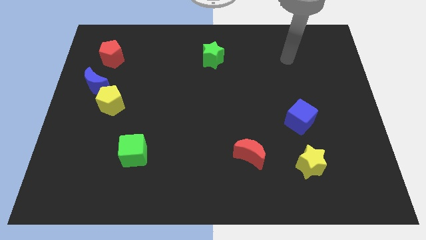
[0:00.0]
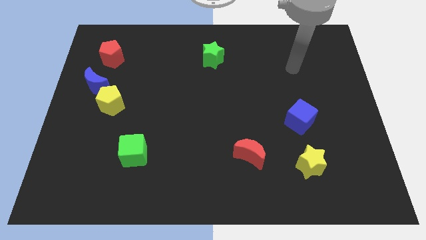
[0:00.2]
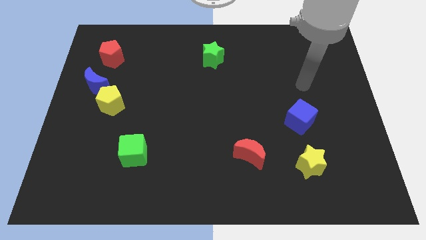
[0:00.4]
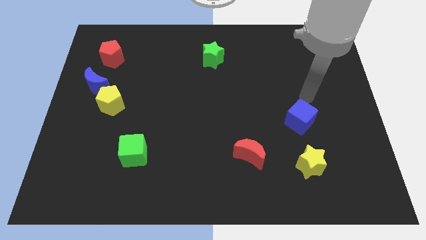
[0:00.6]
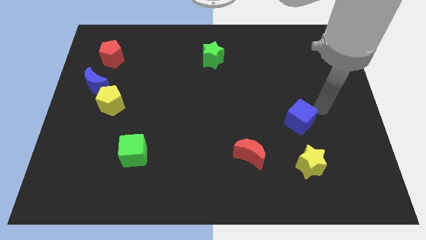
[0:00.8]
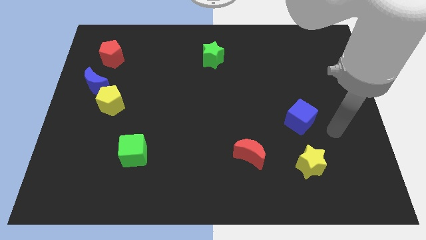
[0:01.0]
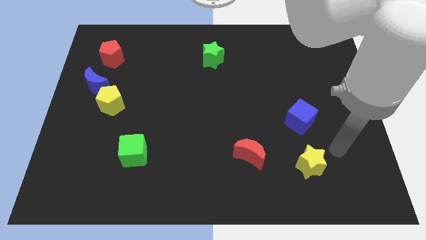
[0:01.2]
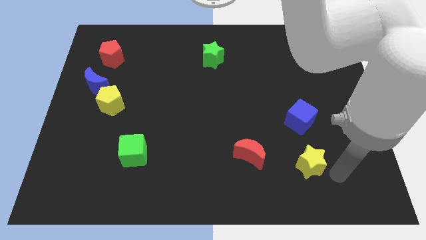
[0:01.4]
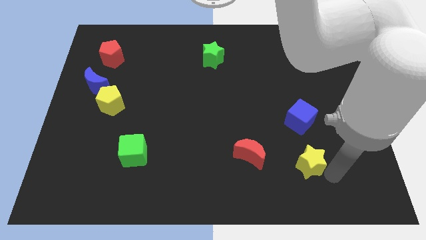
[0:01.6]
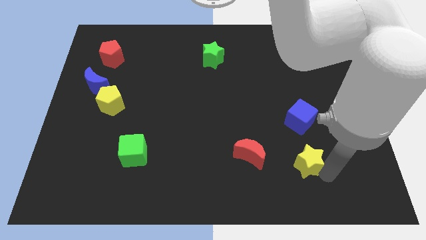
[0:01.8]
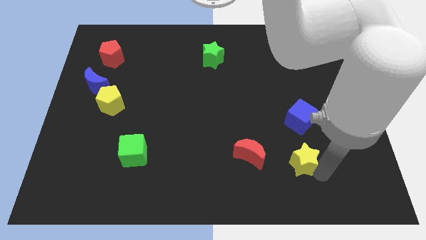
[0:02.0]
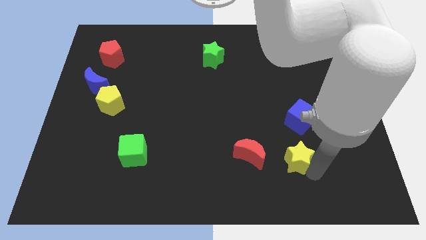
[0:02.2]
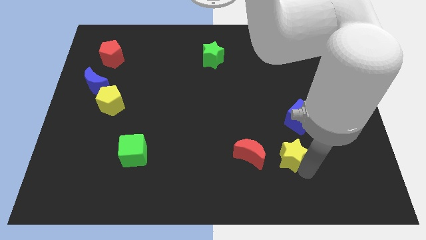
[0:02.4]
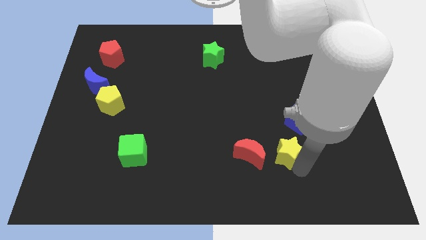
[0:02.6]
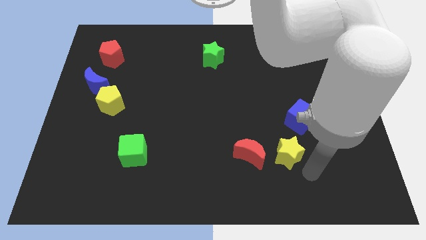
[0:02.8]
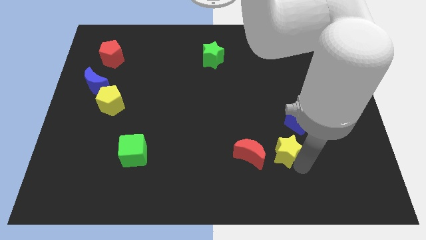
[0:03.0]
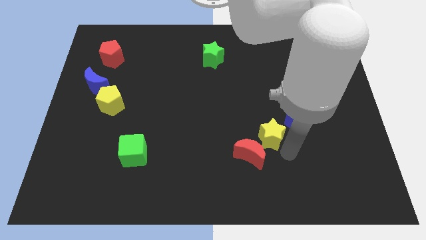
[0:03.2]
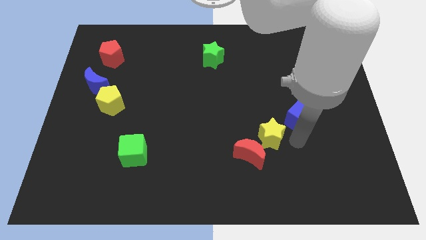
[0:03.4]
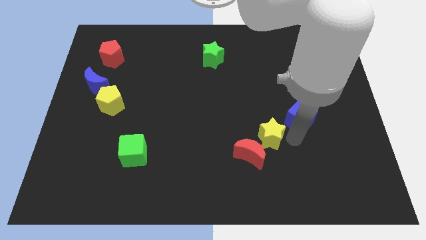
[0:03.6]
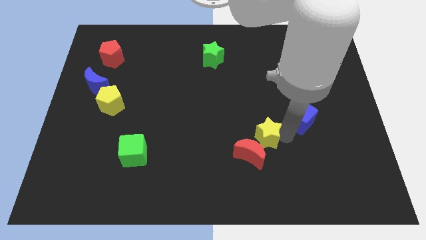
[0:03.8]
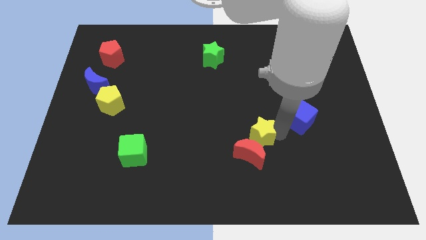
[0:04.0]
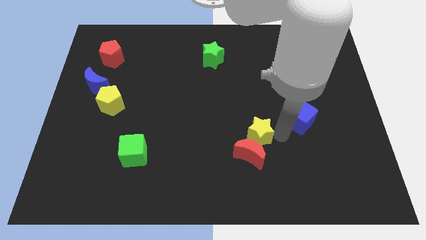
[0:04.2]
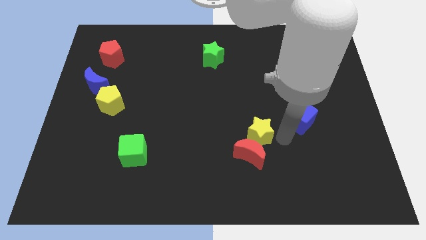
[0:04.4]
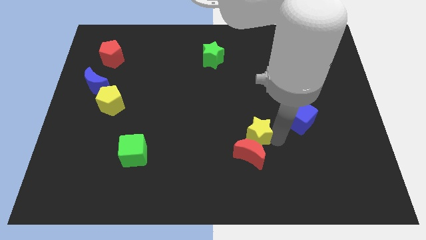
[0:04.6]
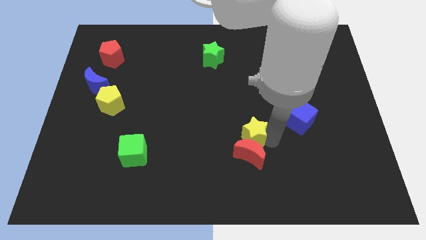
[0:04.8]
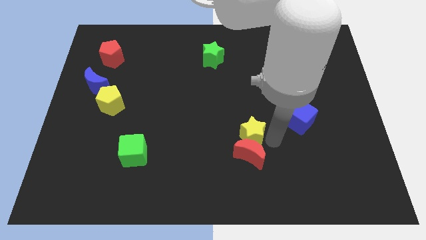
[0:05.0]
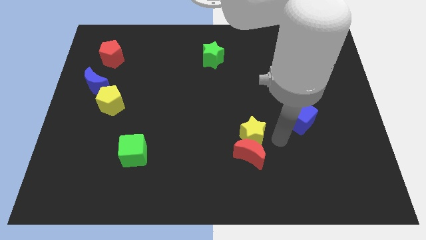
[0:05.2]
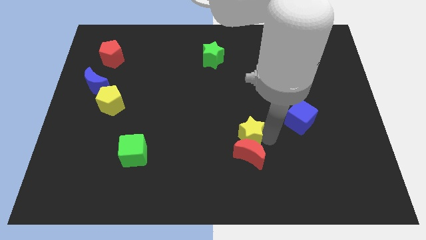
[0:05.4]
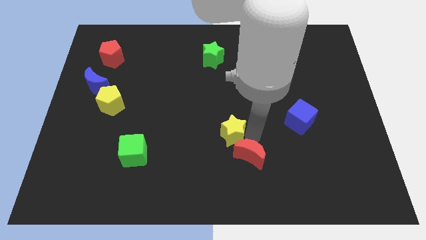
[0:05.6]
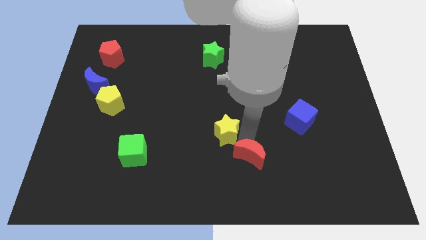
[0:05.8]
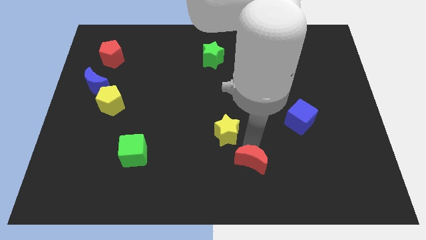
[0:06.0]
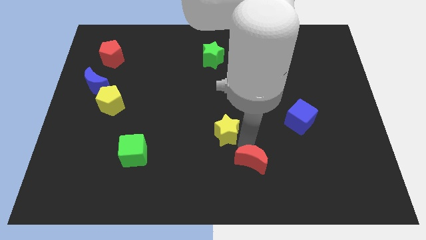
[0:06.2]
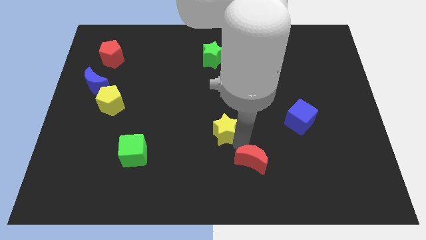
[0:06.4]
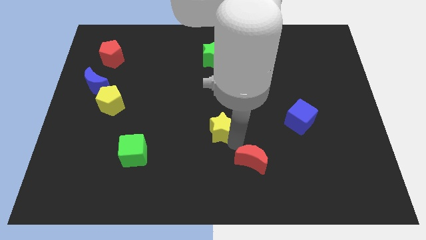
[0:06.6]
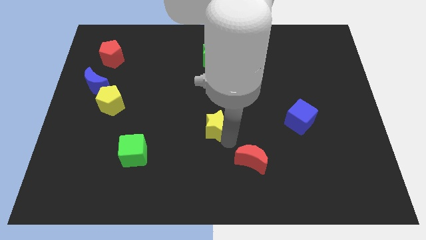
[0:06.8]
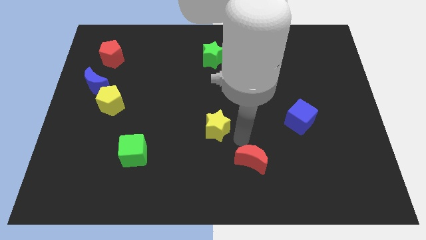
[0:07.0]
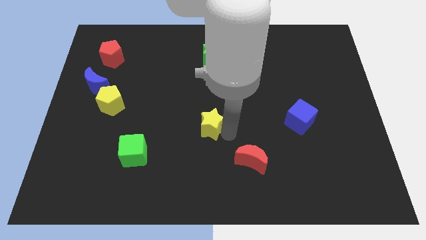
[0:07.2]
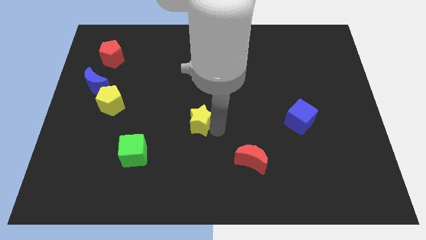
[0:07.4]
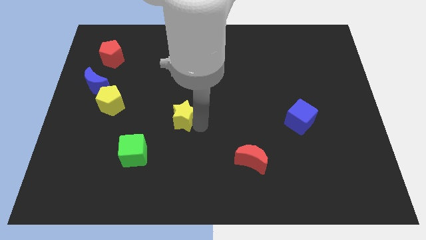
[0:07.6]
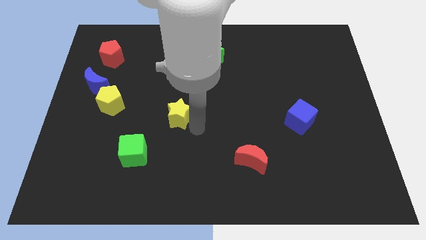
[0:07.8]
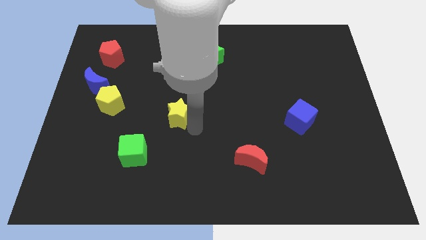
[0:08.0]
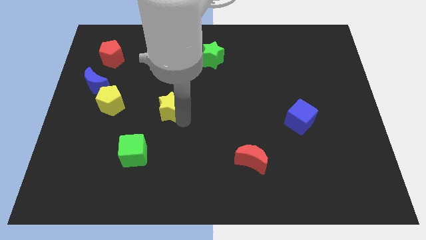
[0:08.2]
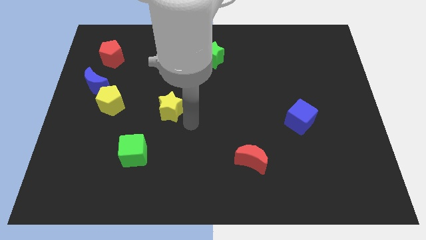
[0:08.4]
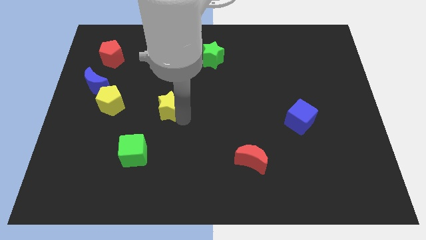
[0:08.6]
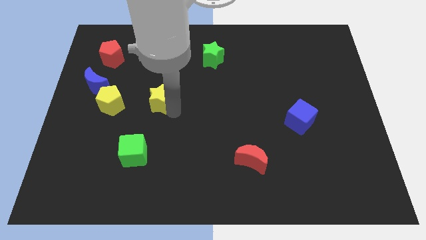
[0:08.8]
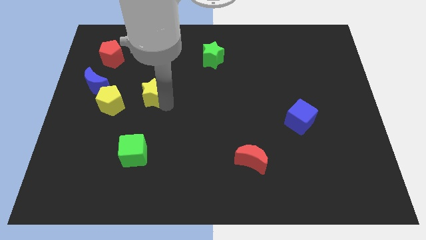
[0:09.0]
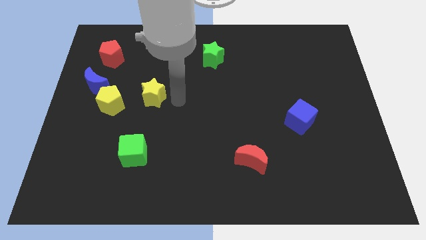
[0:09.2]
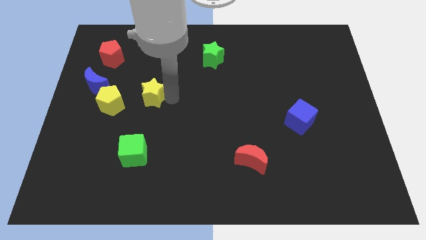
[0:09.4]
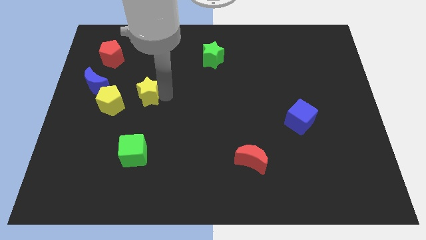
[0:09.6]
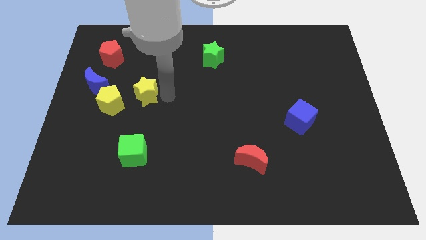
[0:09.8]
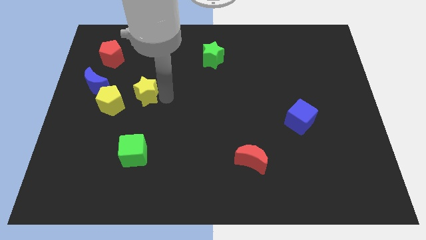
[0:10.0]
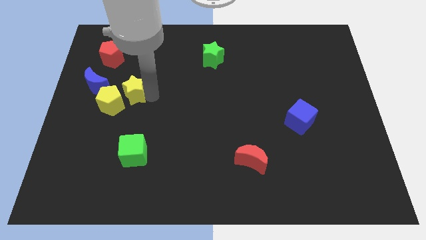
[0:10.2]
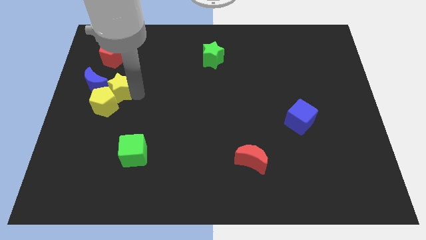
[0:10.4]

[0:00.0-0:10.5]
move the yellow star towards the blue moon

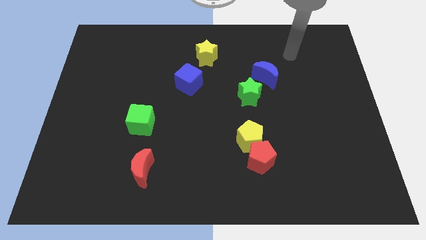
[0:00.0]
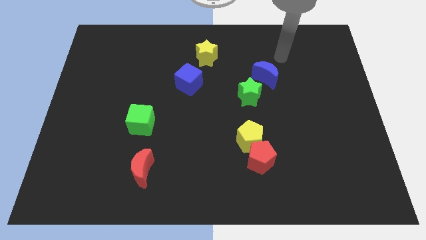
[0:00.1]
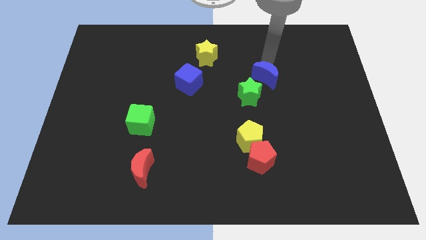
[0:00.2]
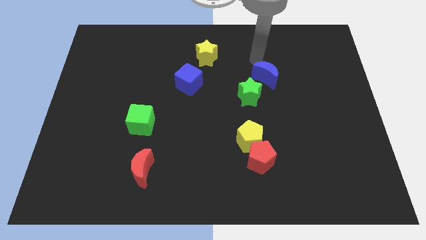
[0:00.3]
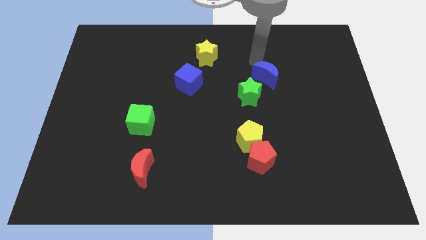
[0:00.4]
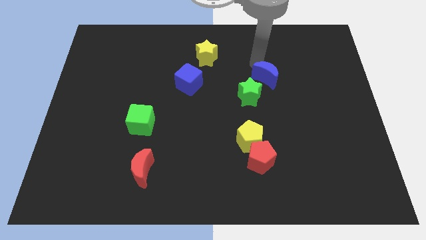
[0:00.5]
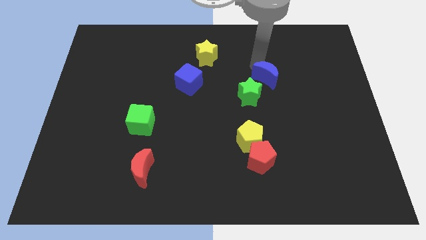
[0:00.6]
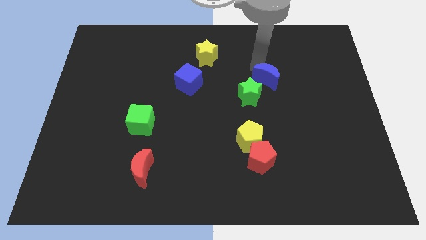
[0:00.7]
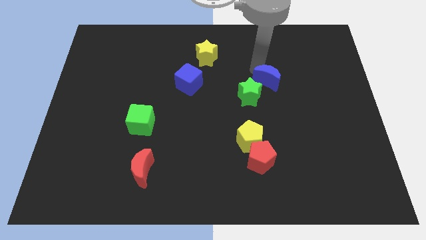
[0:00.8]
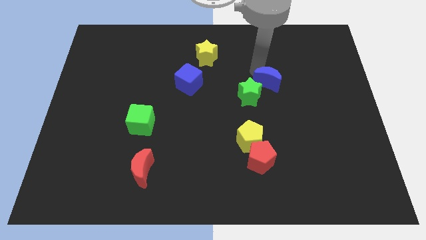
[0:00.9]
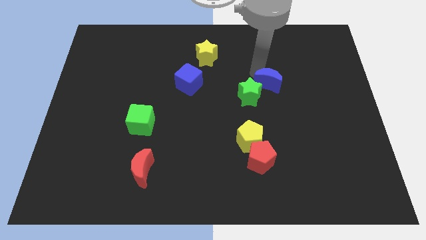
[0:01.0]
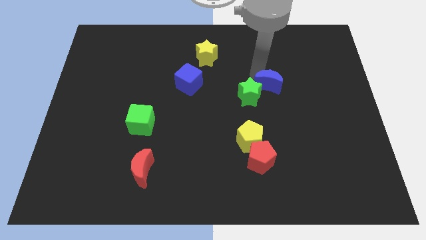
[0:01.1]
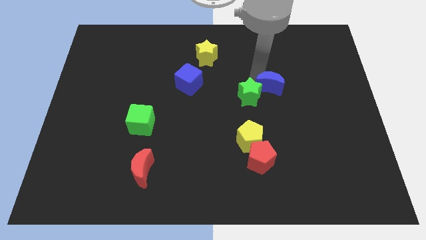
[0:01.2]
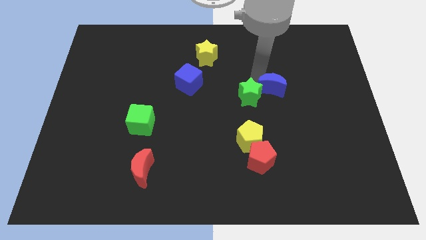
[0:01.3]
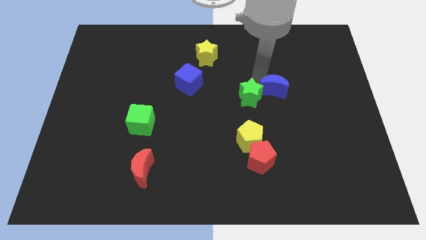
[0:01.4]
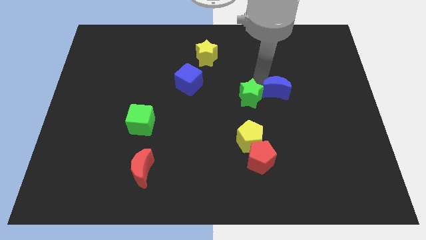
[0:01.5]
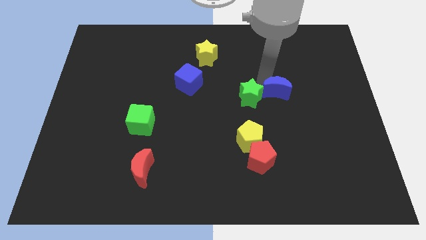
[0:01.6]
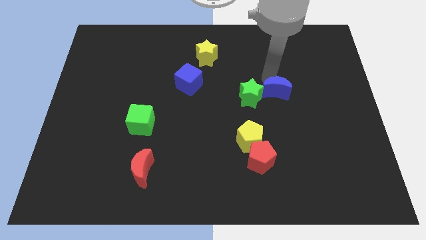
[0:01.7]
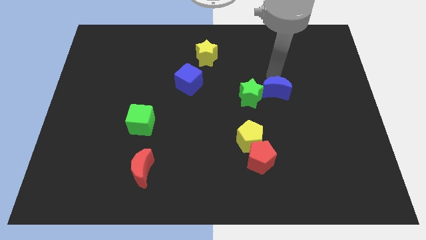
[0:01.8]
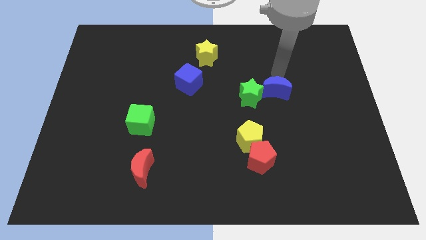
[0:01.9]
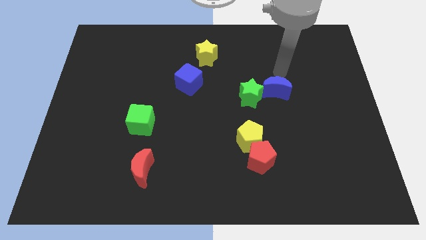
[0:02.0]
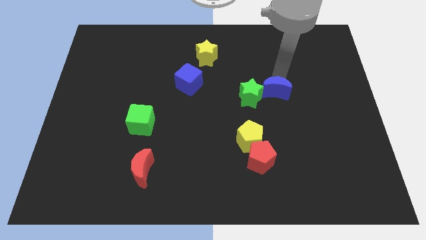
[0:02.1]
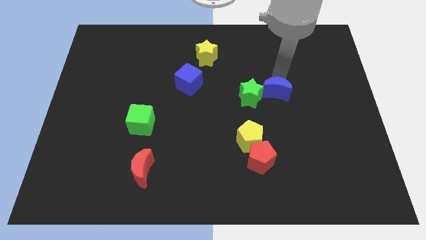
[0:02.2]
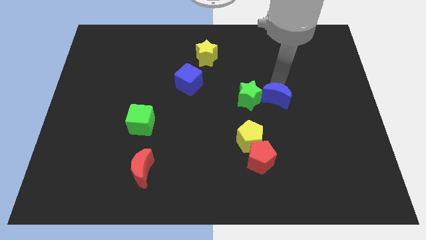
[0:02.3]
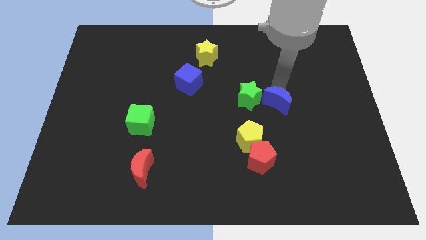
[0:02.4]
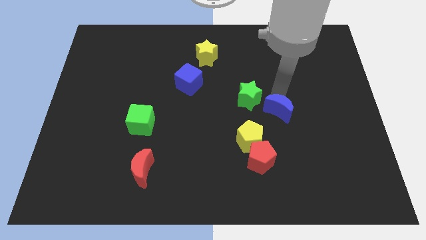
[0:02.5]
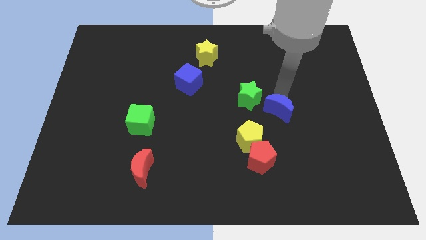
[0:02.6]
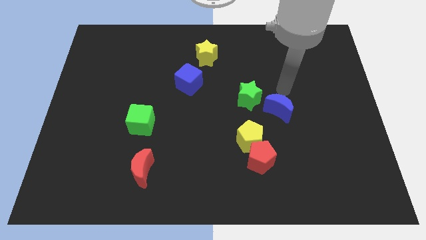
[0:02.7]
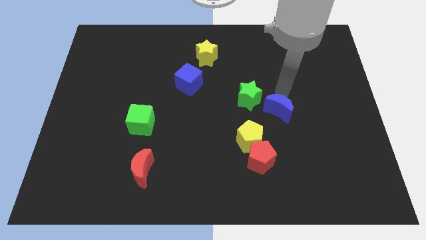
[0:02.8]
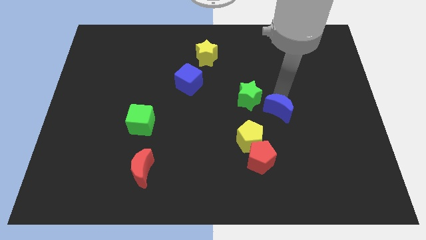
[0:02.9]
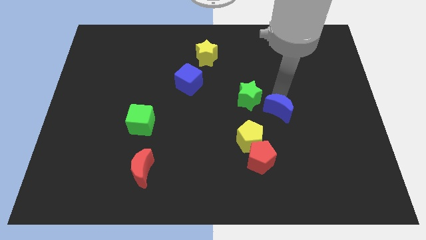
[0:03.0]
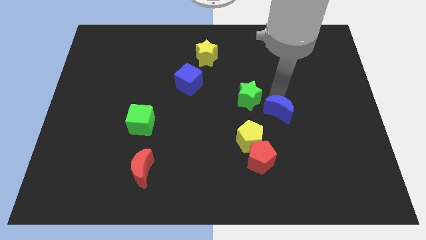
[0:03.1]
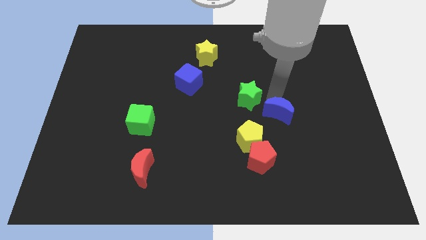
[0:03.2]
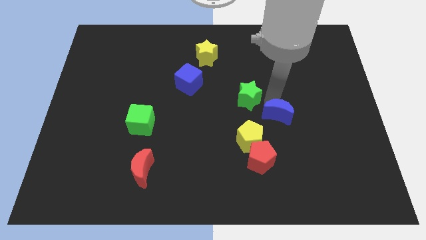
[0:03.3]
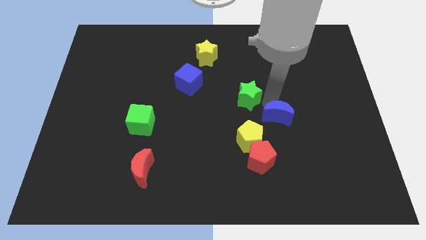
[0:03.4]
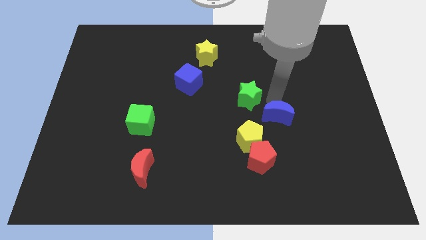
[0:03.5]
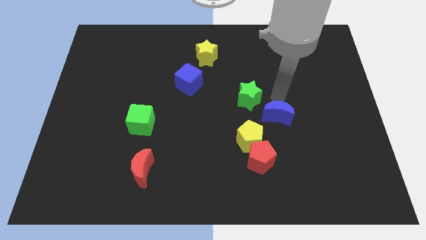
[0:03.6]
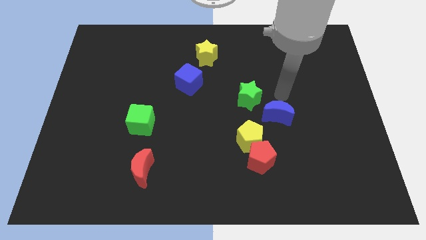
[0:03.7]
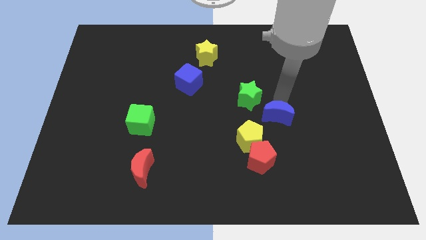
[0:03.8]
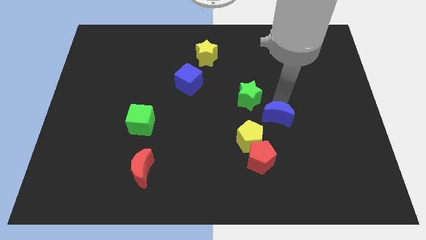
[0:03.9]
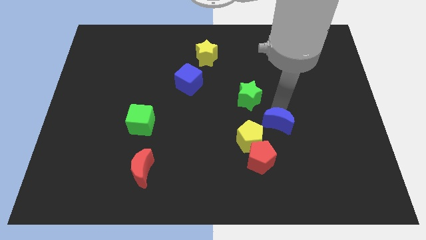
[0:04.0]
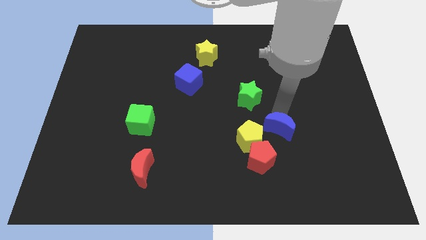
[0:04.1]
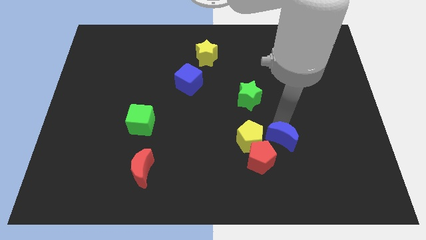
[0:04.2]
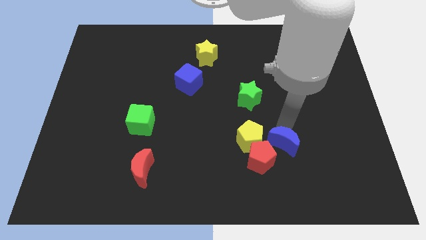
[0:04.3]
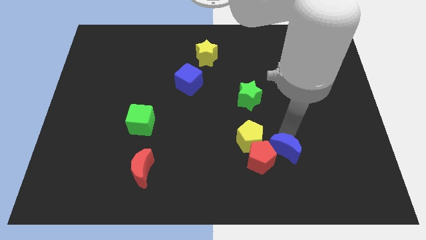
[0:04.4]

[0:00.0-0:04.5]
push the blue moon to the red pentagon
